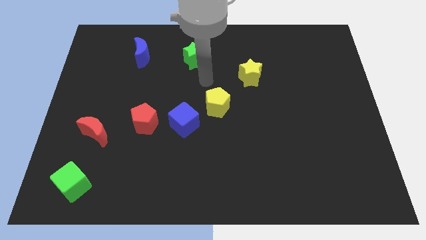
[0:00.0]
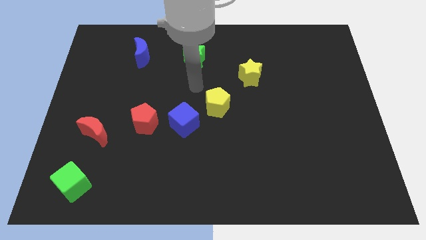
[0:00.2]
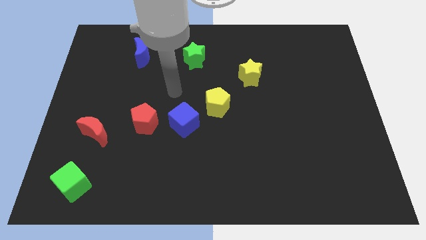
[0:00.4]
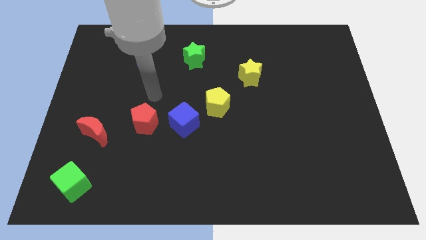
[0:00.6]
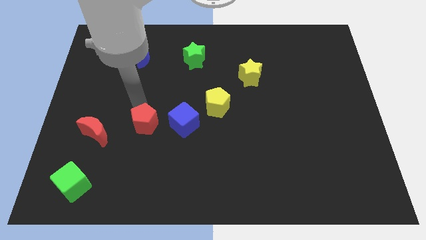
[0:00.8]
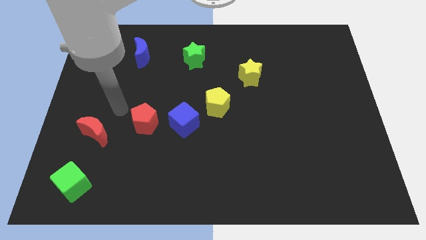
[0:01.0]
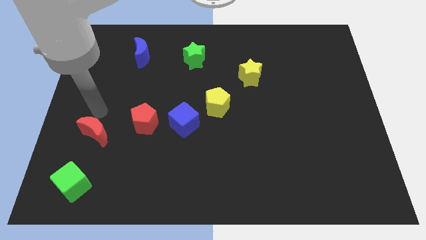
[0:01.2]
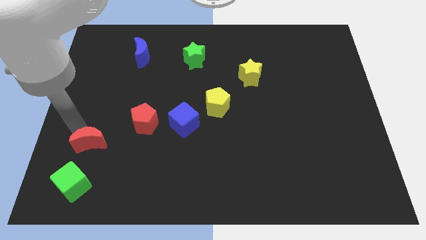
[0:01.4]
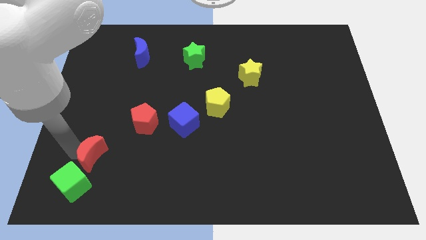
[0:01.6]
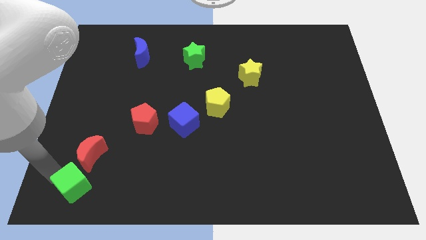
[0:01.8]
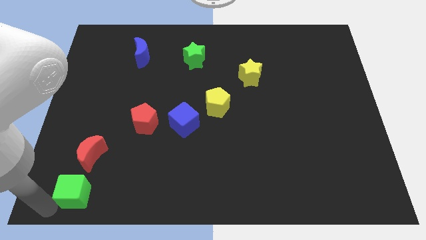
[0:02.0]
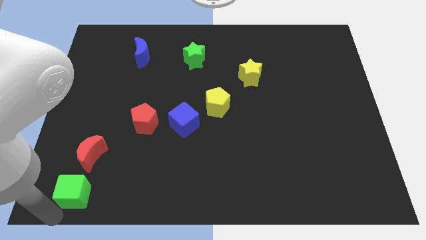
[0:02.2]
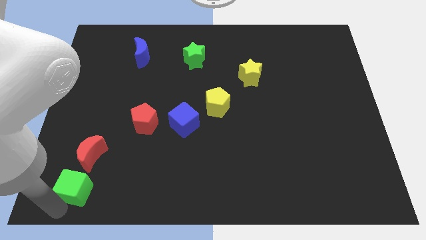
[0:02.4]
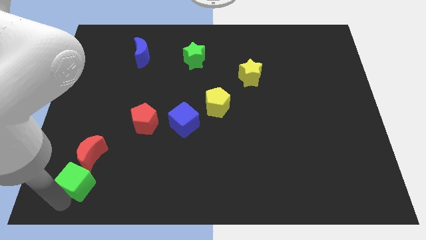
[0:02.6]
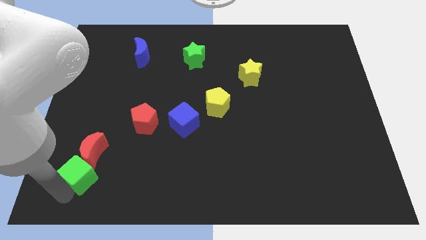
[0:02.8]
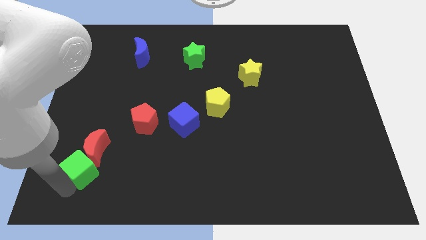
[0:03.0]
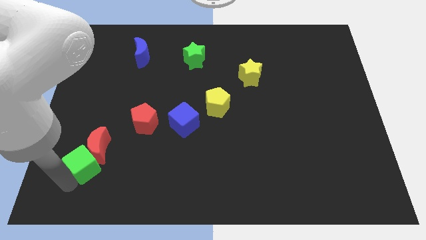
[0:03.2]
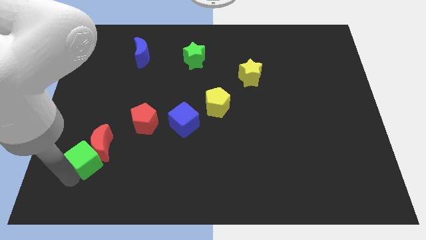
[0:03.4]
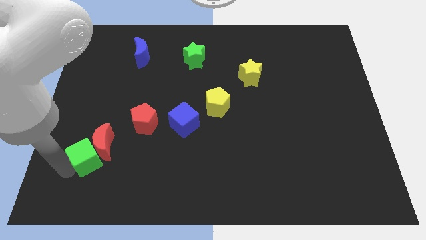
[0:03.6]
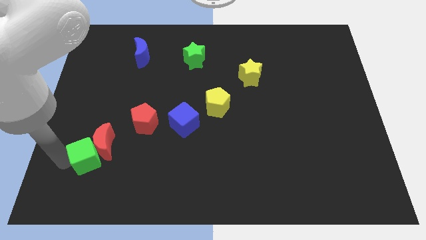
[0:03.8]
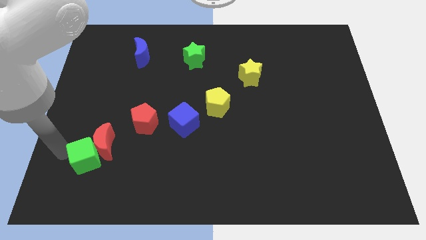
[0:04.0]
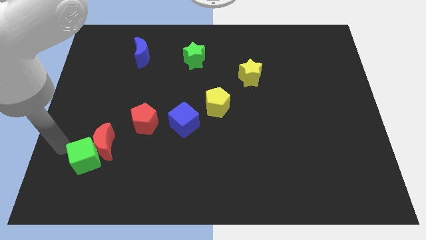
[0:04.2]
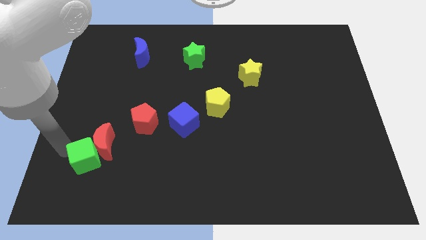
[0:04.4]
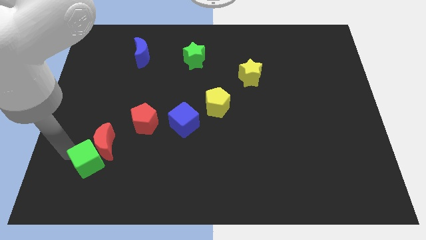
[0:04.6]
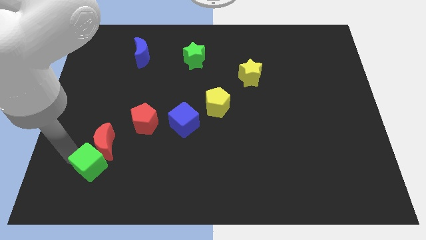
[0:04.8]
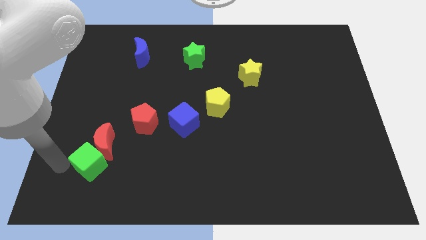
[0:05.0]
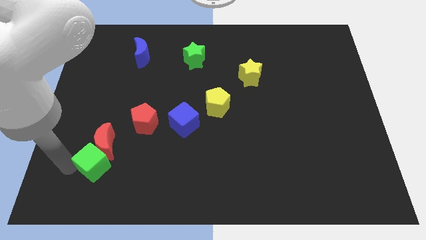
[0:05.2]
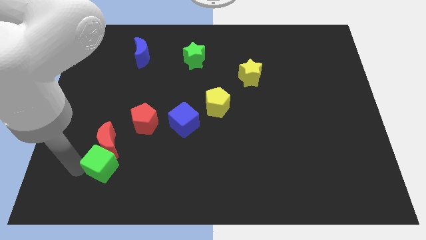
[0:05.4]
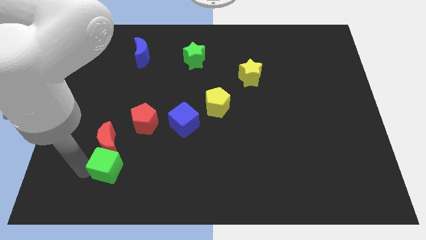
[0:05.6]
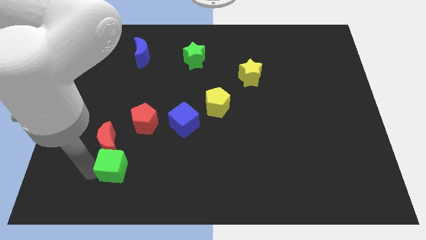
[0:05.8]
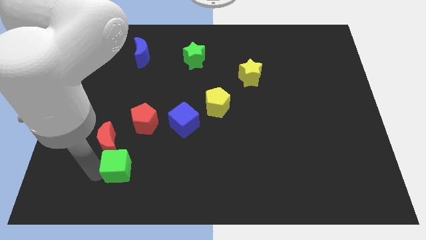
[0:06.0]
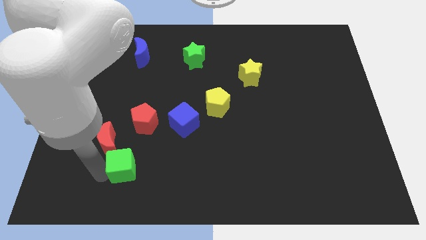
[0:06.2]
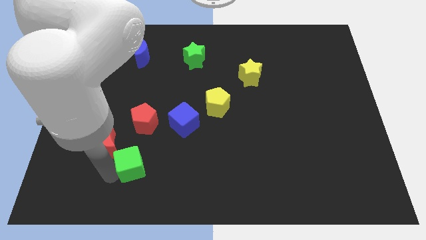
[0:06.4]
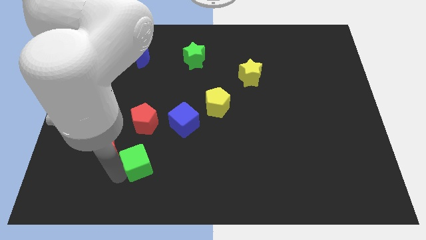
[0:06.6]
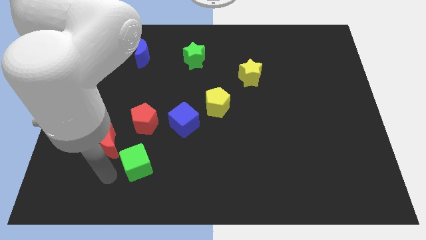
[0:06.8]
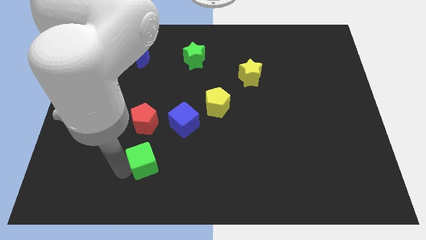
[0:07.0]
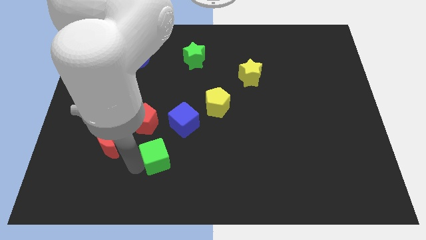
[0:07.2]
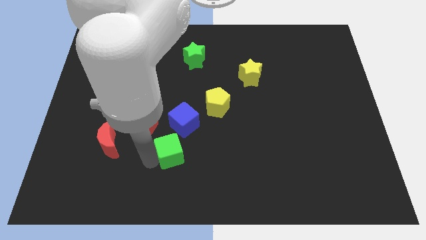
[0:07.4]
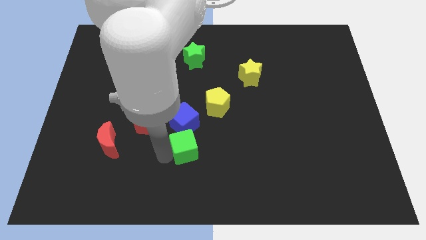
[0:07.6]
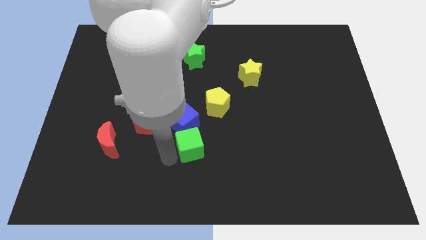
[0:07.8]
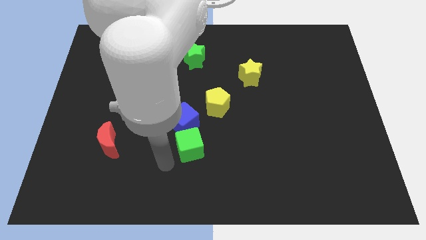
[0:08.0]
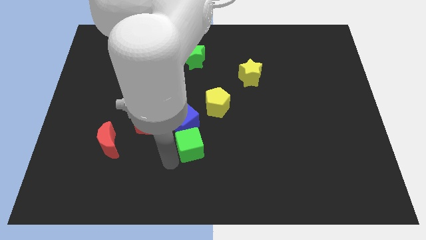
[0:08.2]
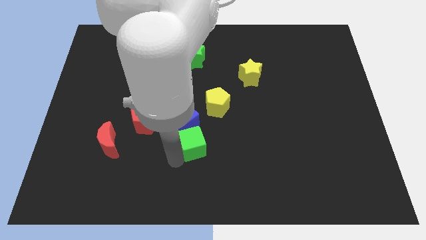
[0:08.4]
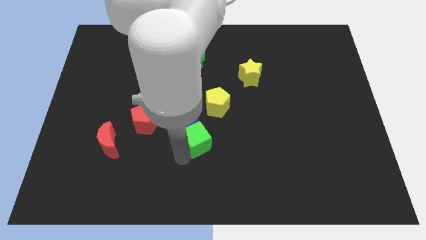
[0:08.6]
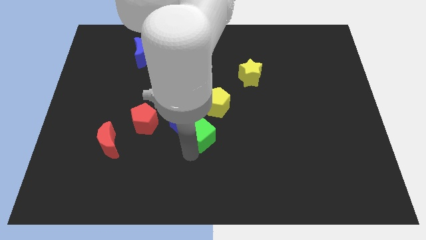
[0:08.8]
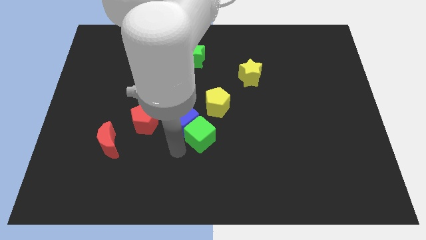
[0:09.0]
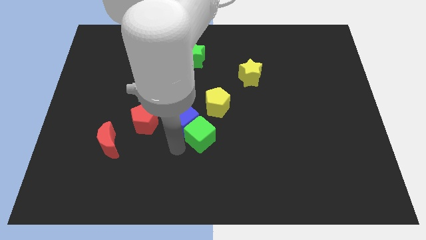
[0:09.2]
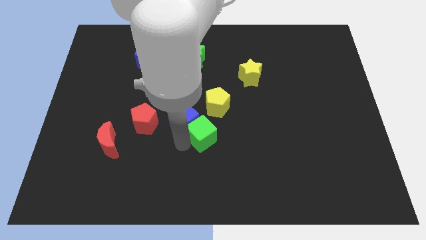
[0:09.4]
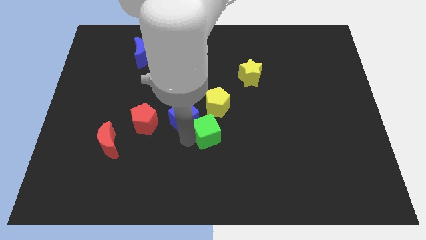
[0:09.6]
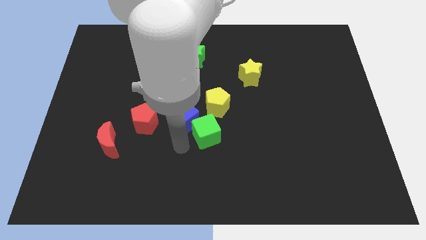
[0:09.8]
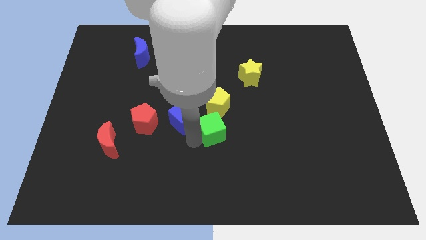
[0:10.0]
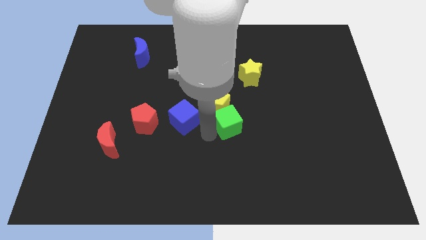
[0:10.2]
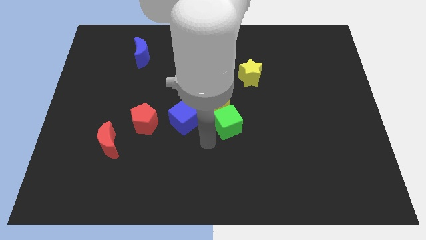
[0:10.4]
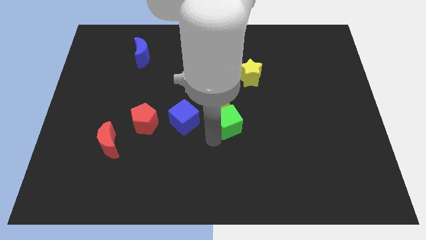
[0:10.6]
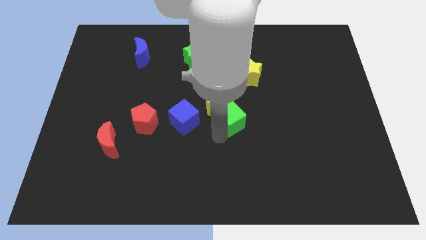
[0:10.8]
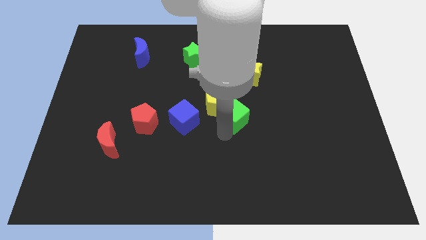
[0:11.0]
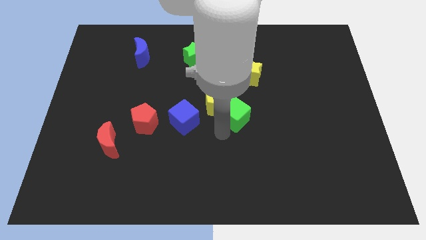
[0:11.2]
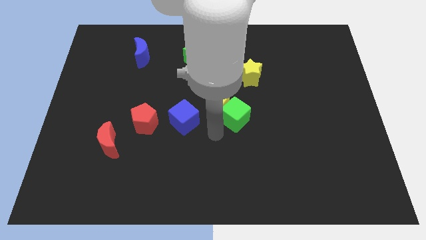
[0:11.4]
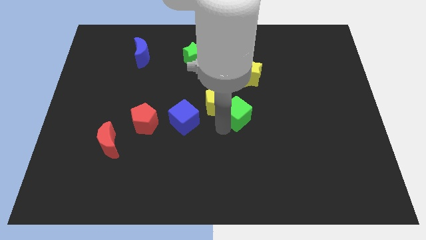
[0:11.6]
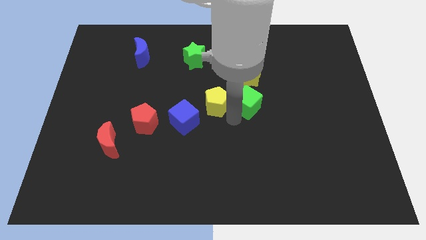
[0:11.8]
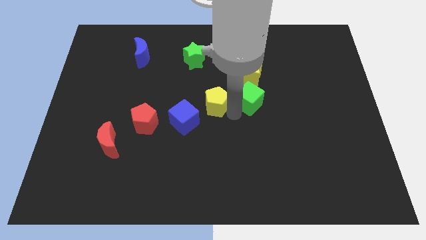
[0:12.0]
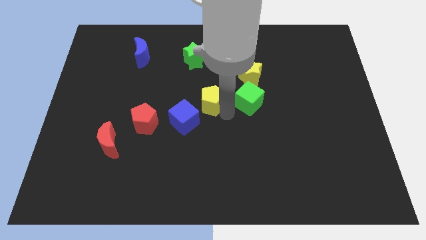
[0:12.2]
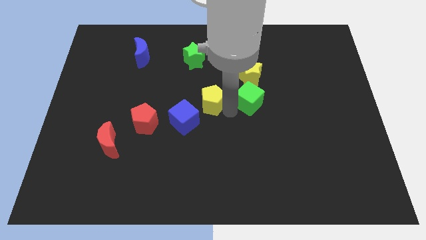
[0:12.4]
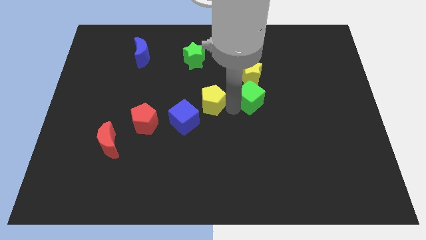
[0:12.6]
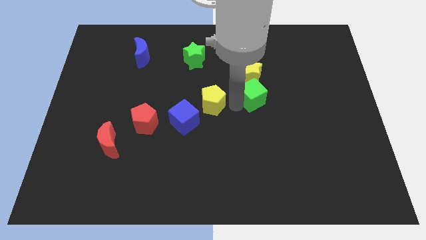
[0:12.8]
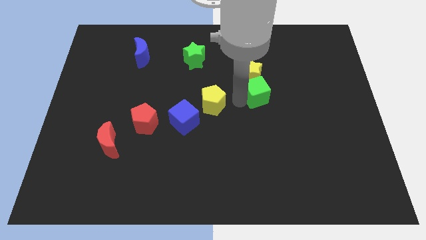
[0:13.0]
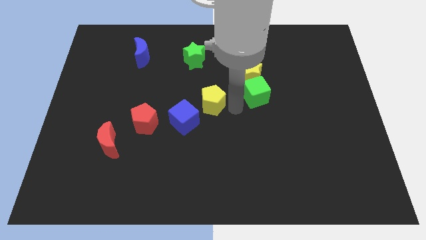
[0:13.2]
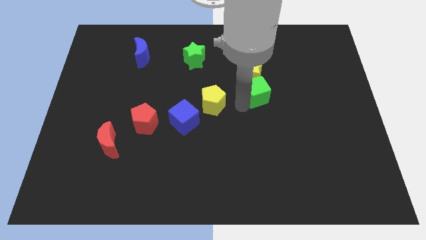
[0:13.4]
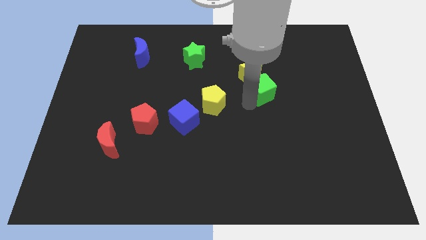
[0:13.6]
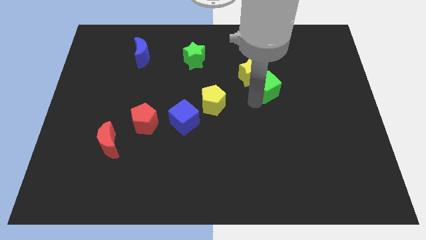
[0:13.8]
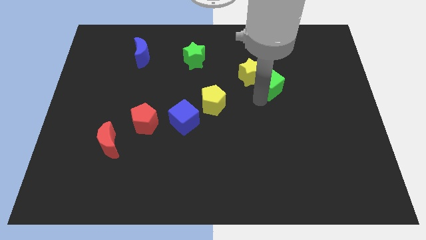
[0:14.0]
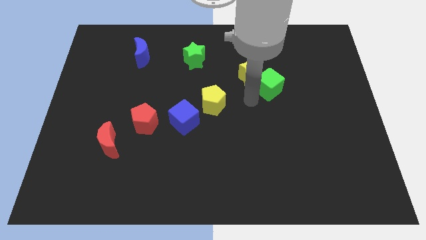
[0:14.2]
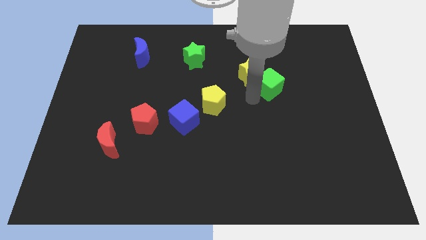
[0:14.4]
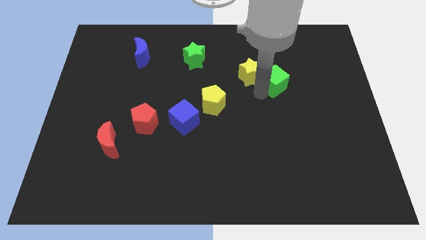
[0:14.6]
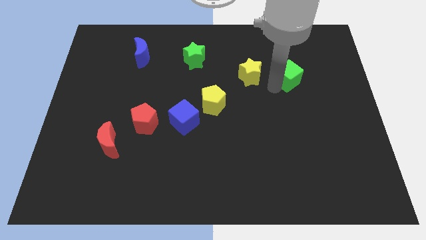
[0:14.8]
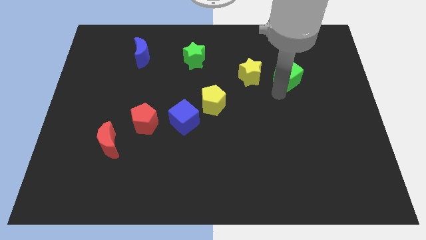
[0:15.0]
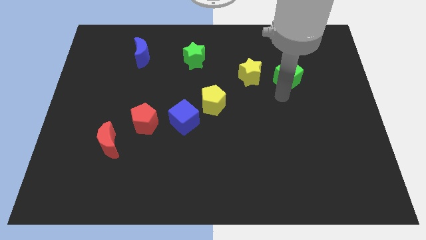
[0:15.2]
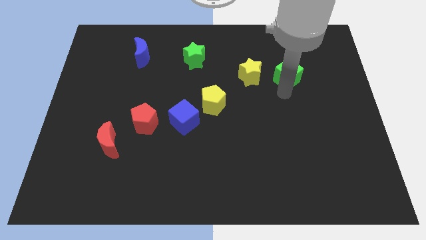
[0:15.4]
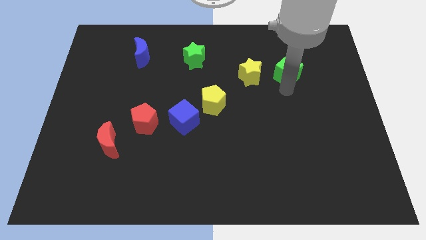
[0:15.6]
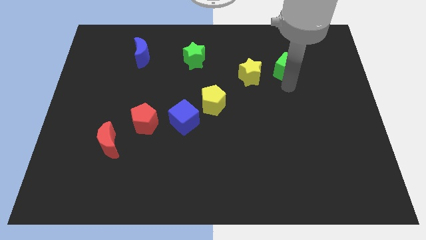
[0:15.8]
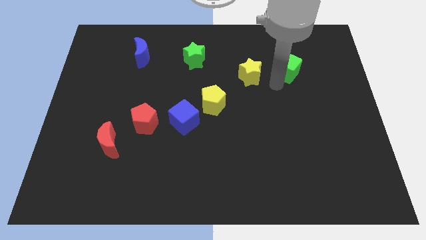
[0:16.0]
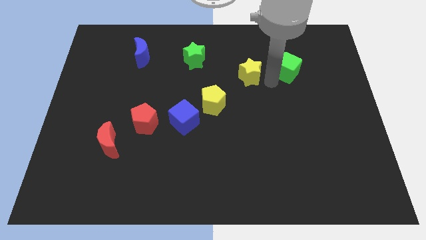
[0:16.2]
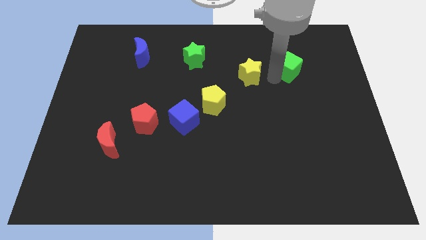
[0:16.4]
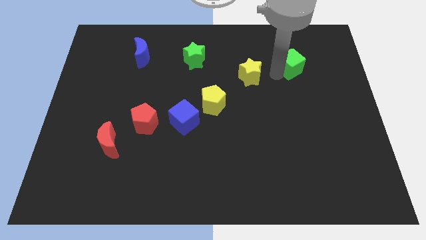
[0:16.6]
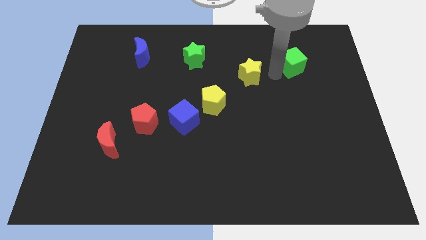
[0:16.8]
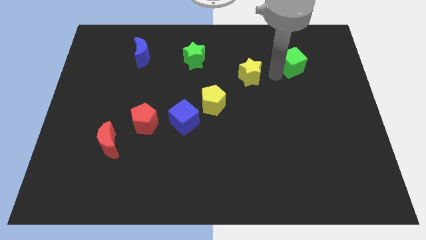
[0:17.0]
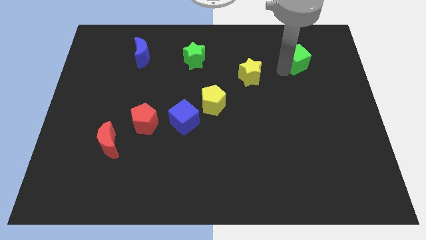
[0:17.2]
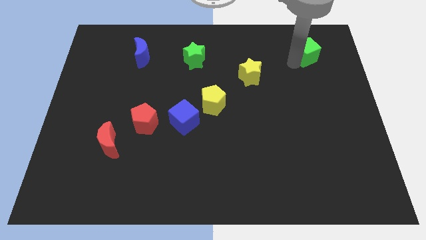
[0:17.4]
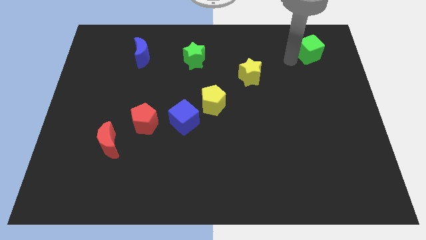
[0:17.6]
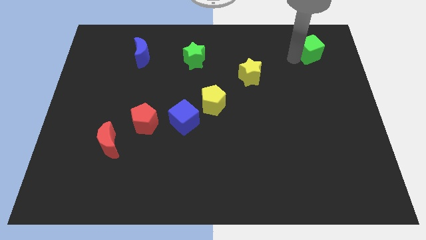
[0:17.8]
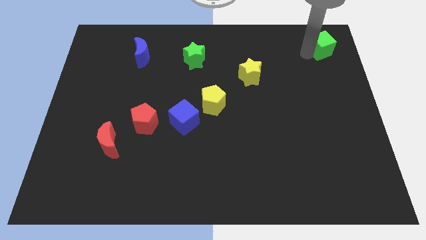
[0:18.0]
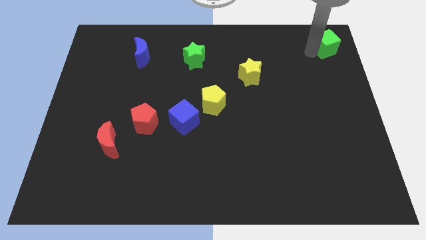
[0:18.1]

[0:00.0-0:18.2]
slide the green cube to the upper right corner
